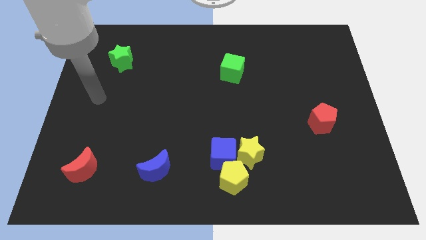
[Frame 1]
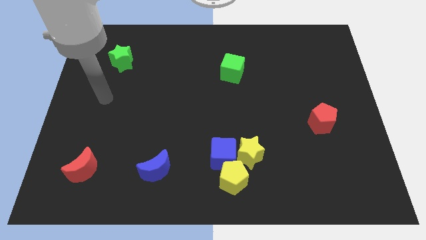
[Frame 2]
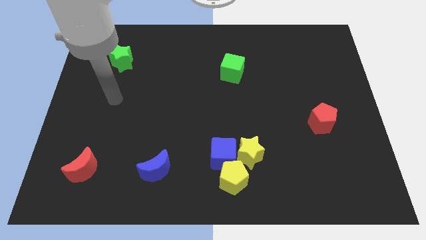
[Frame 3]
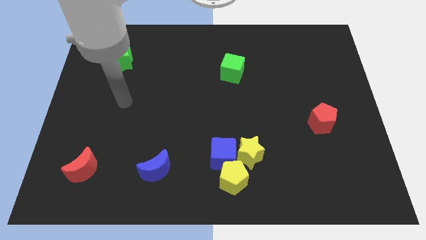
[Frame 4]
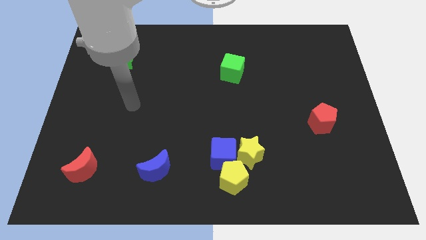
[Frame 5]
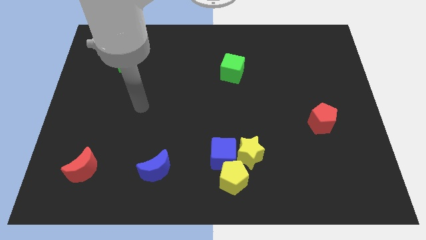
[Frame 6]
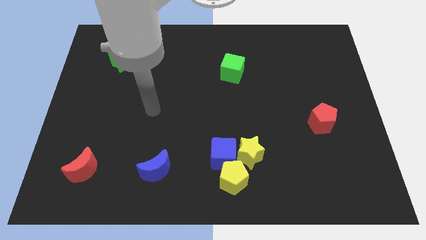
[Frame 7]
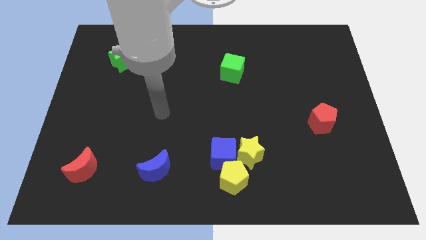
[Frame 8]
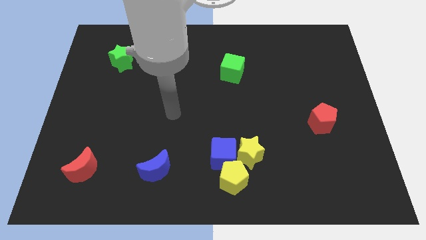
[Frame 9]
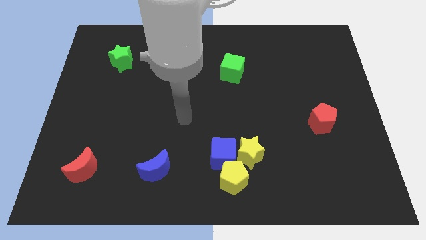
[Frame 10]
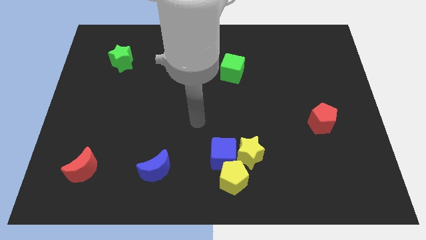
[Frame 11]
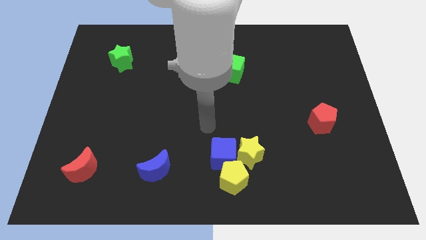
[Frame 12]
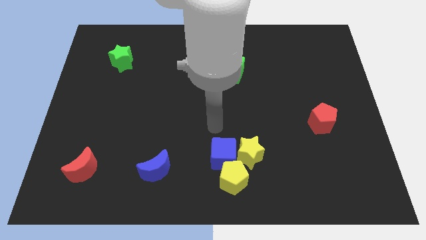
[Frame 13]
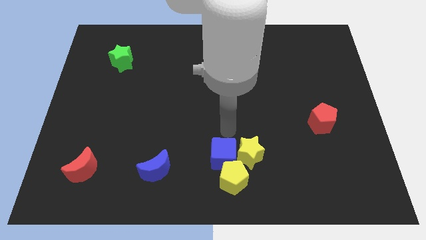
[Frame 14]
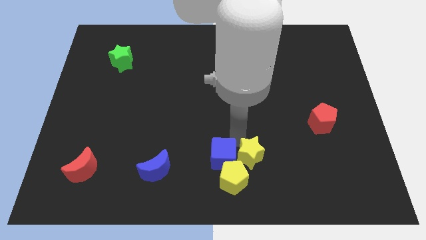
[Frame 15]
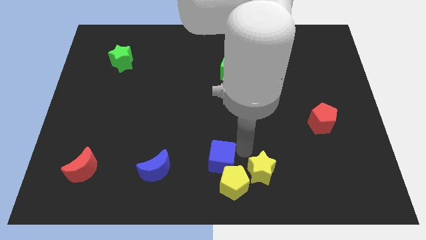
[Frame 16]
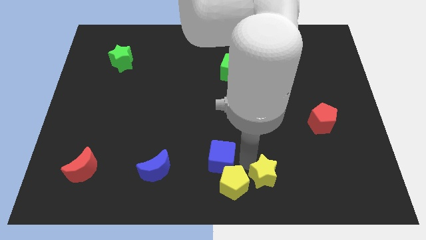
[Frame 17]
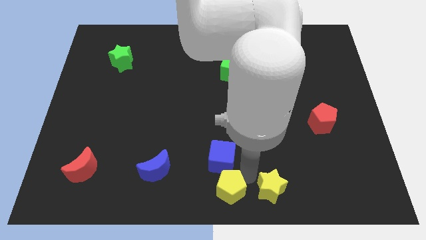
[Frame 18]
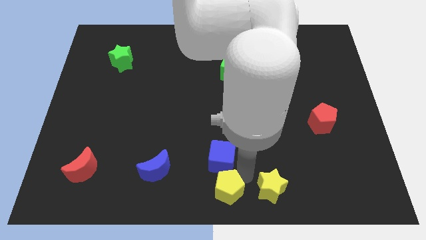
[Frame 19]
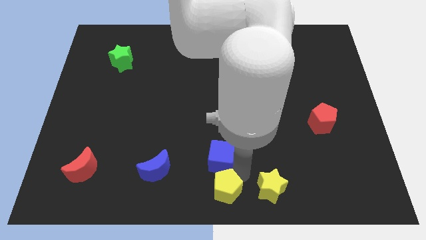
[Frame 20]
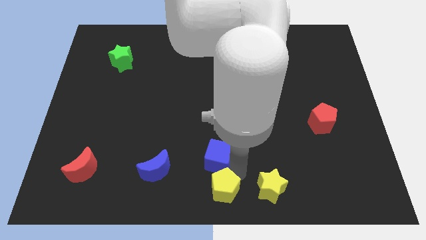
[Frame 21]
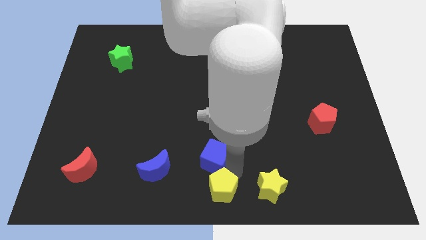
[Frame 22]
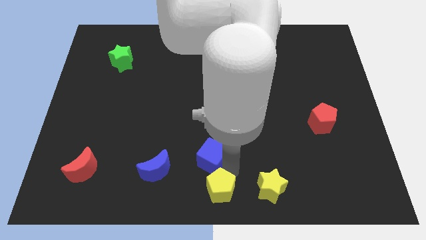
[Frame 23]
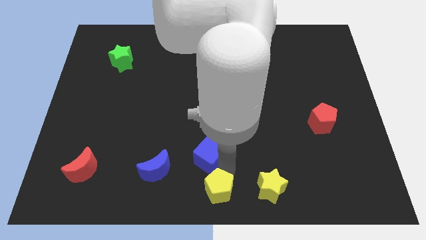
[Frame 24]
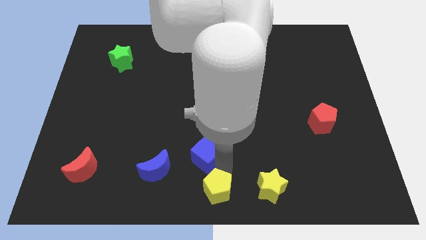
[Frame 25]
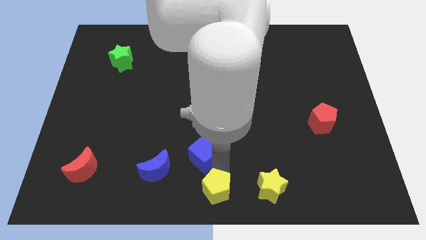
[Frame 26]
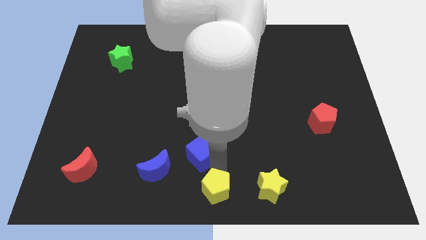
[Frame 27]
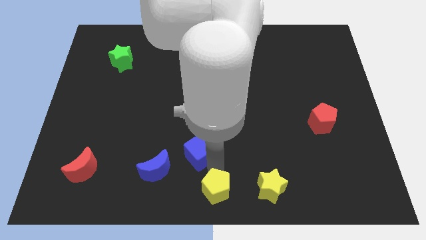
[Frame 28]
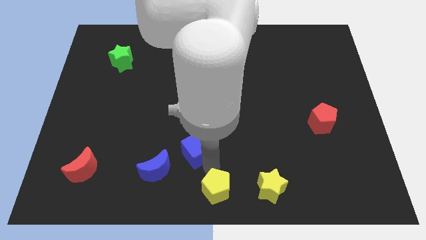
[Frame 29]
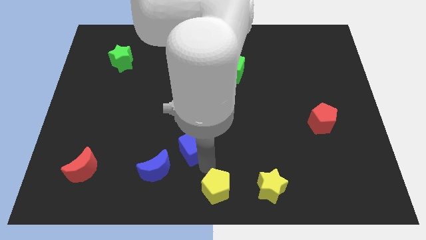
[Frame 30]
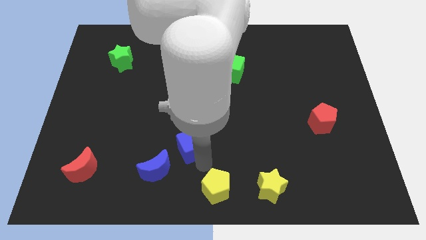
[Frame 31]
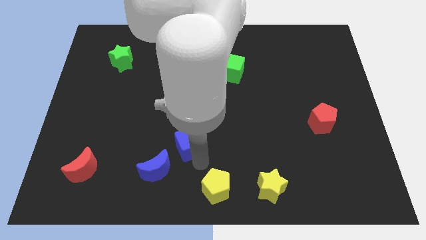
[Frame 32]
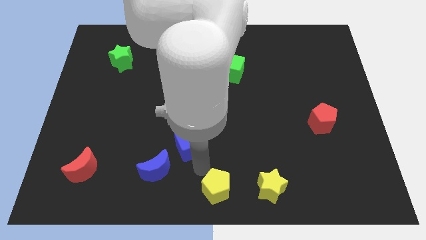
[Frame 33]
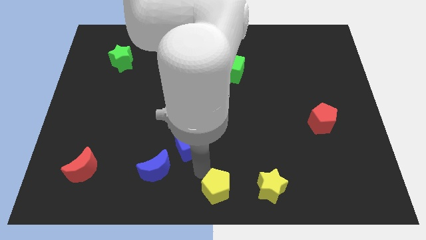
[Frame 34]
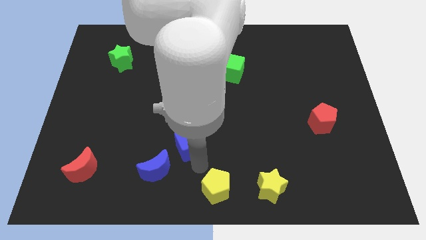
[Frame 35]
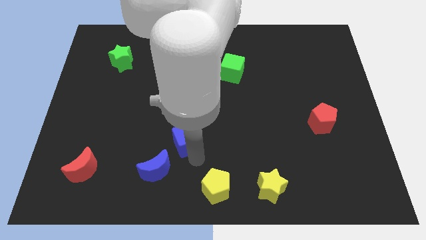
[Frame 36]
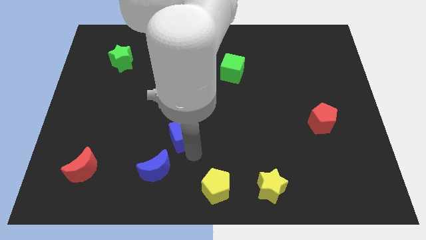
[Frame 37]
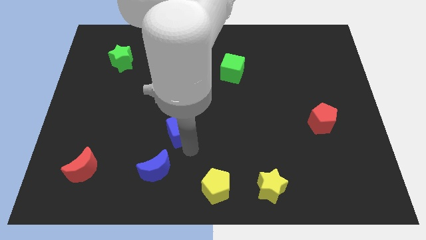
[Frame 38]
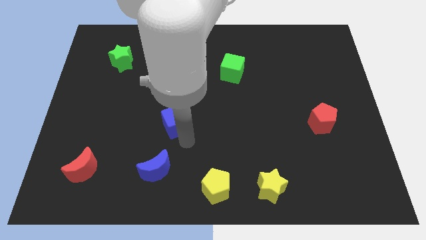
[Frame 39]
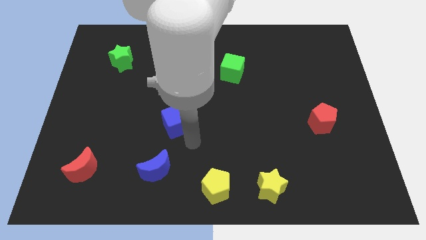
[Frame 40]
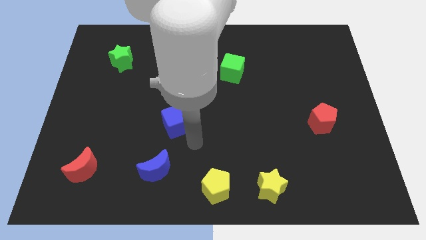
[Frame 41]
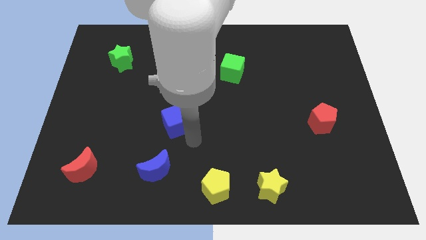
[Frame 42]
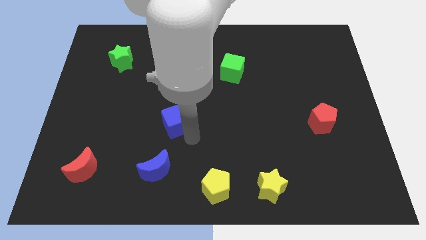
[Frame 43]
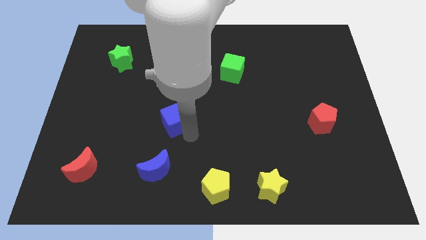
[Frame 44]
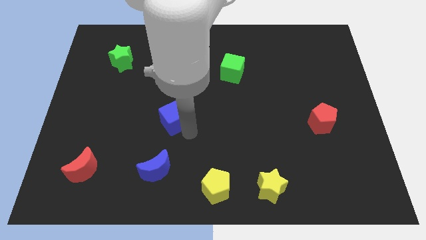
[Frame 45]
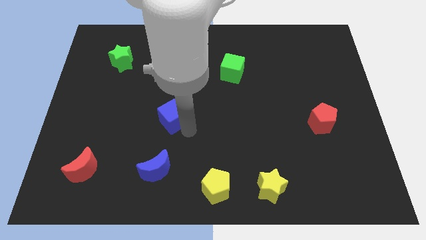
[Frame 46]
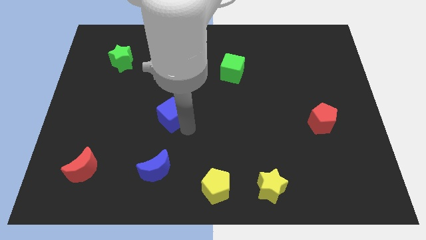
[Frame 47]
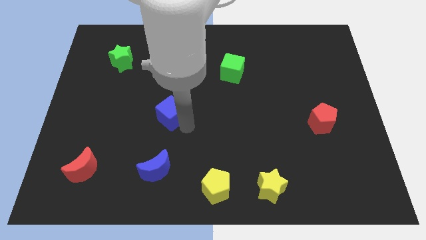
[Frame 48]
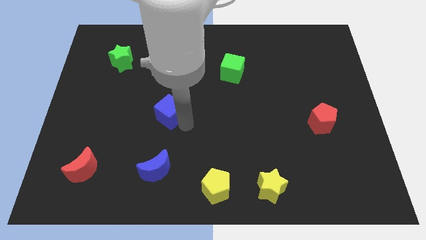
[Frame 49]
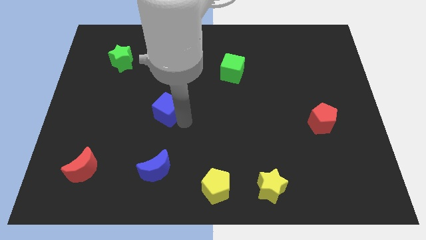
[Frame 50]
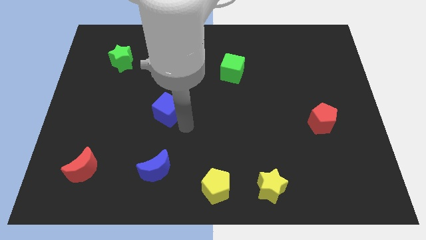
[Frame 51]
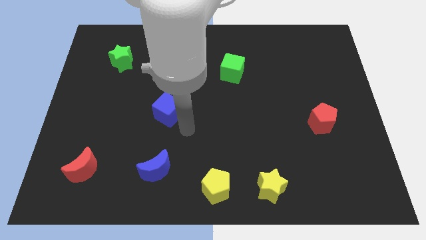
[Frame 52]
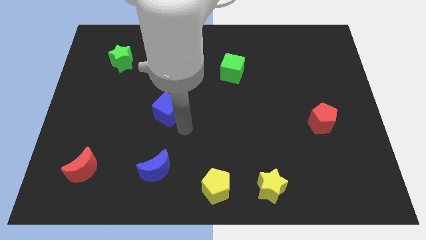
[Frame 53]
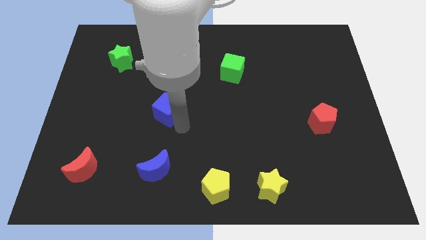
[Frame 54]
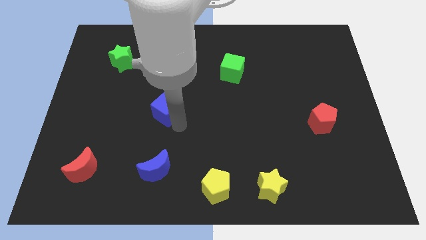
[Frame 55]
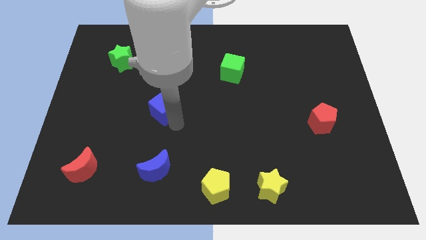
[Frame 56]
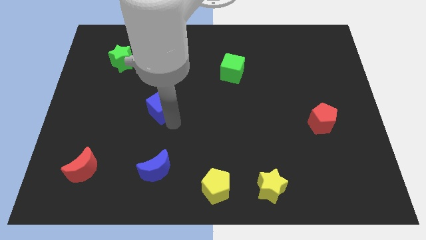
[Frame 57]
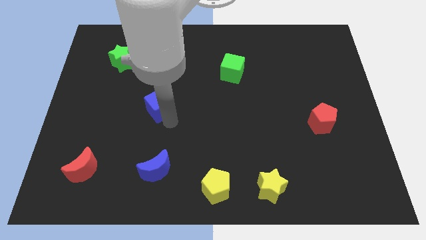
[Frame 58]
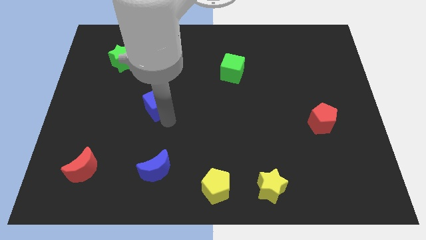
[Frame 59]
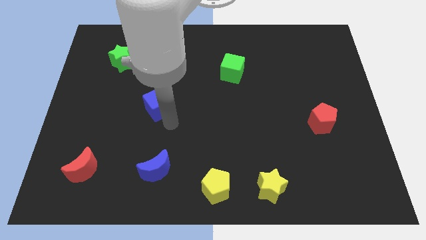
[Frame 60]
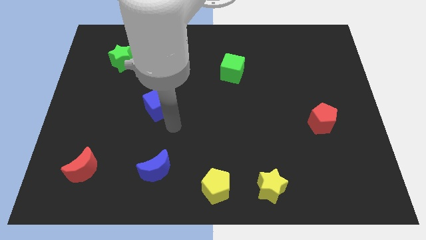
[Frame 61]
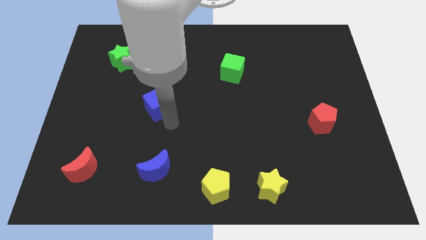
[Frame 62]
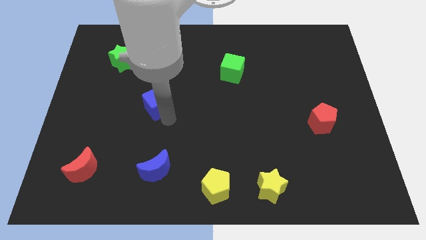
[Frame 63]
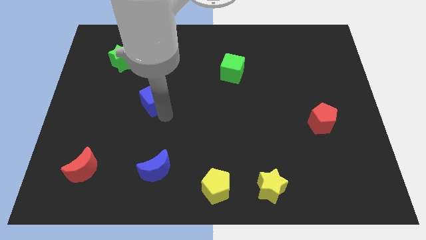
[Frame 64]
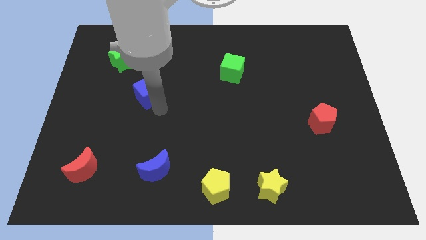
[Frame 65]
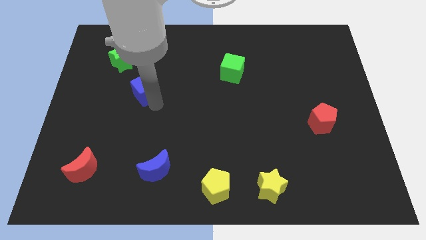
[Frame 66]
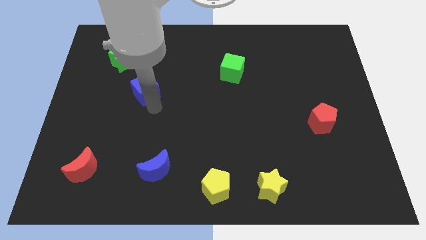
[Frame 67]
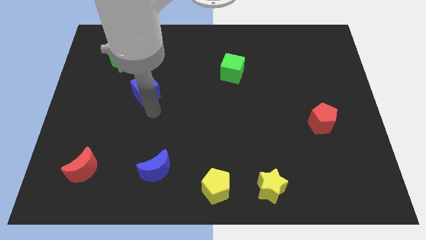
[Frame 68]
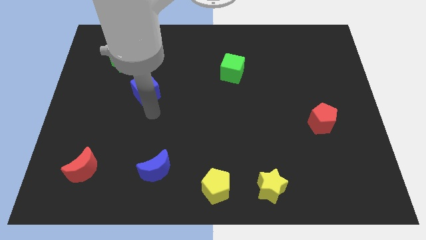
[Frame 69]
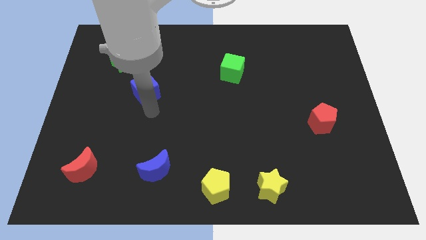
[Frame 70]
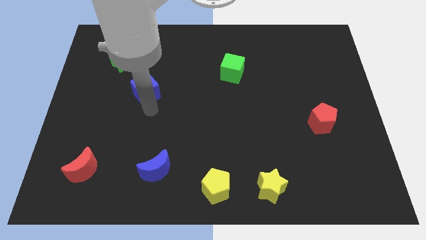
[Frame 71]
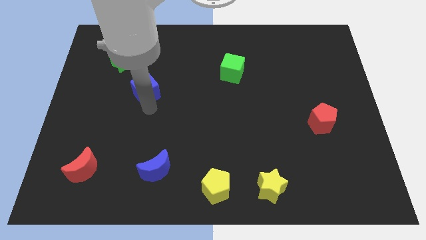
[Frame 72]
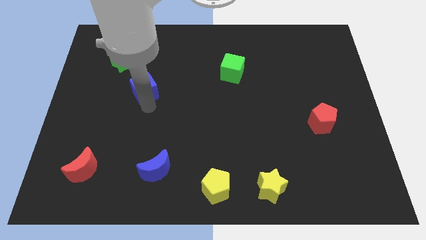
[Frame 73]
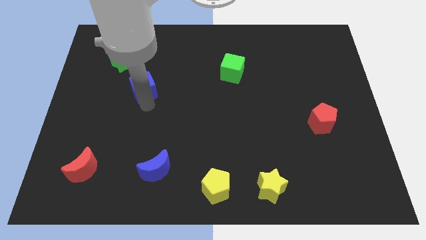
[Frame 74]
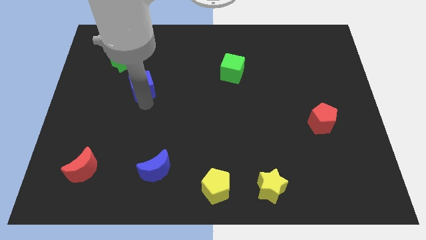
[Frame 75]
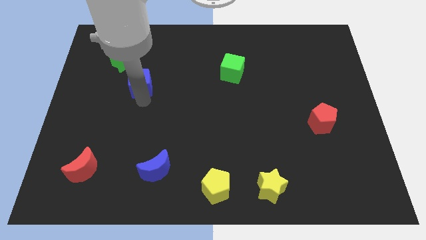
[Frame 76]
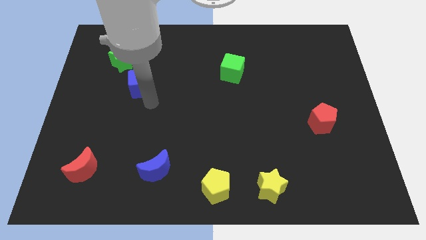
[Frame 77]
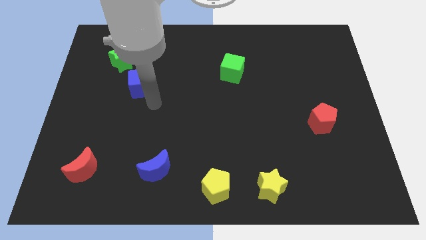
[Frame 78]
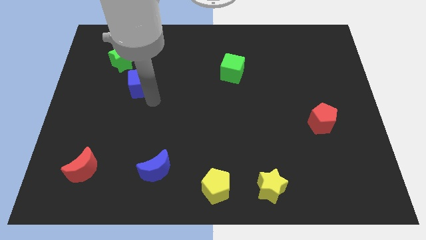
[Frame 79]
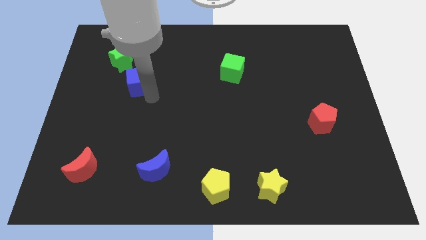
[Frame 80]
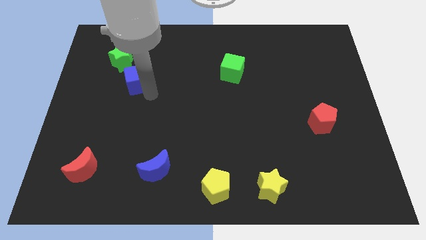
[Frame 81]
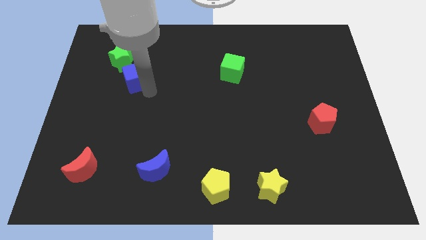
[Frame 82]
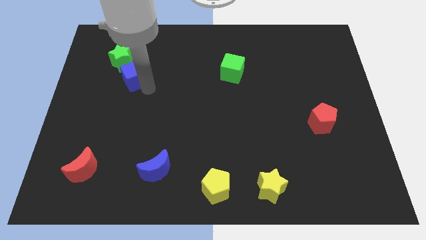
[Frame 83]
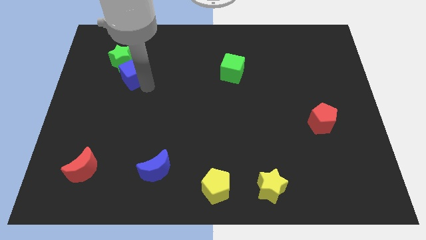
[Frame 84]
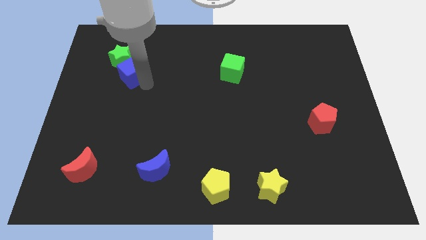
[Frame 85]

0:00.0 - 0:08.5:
put the blue cube close to the green star
